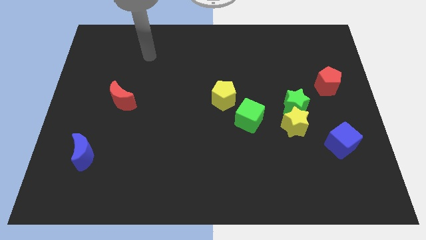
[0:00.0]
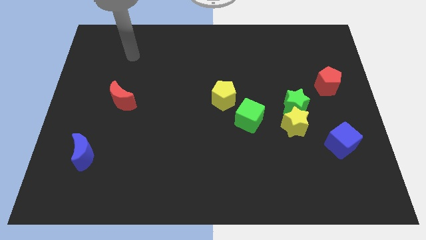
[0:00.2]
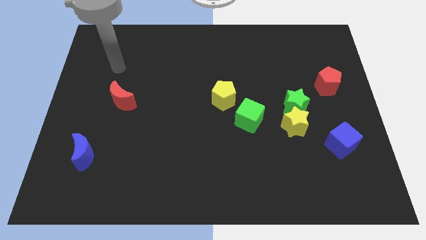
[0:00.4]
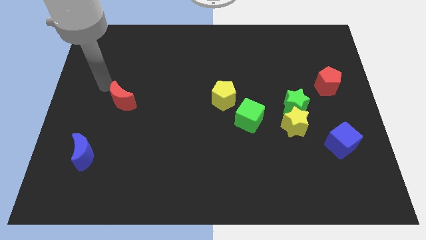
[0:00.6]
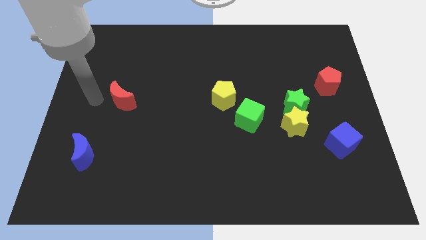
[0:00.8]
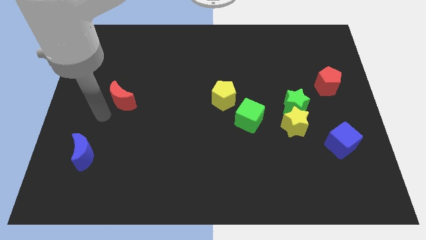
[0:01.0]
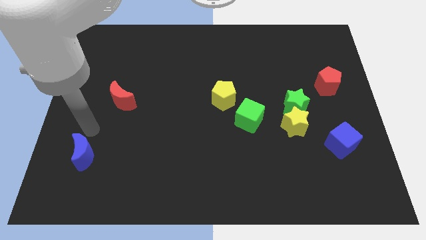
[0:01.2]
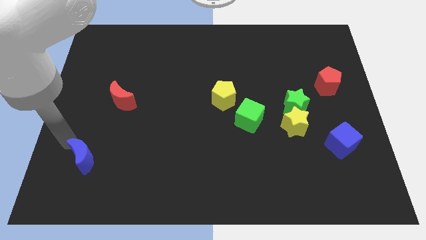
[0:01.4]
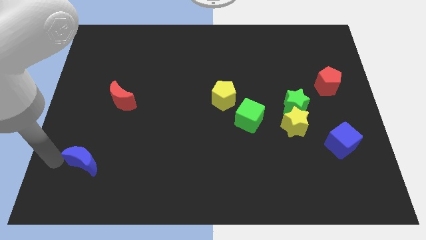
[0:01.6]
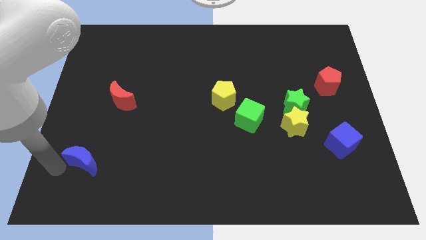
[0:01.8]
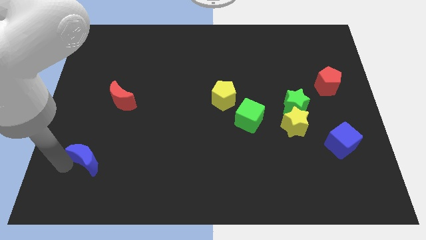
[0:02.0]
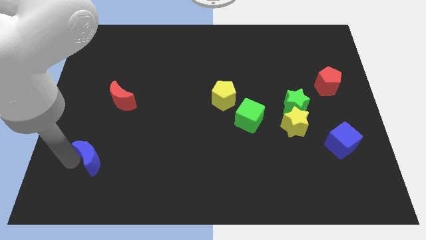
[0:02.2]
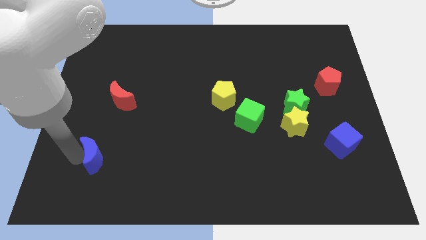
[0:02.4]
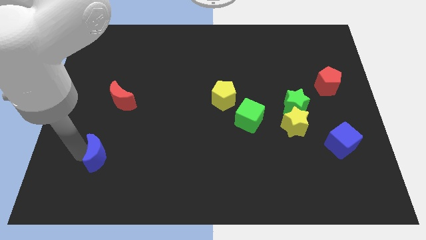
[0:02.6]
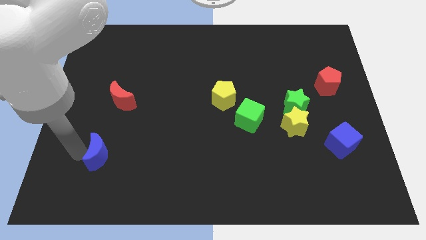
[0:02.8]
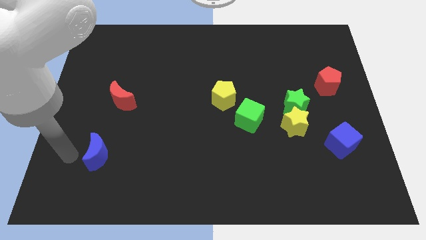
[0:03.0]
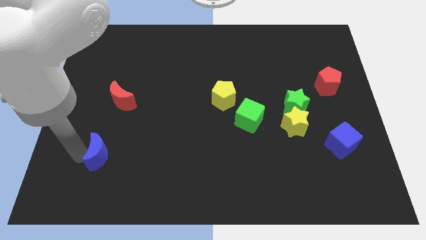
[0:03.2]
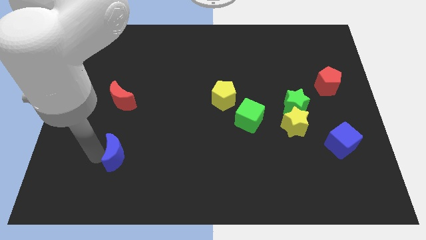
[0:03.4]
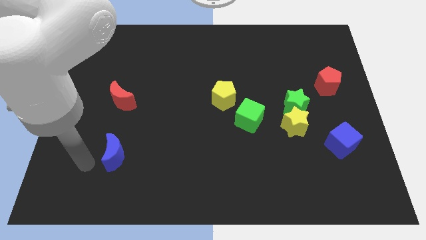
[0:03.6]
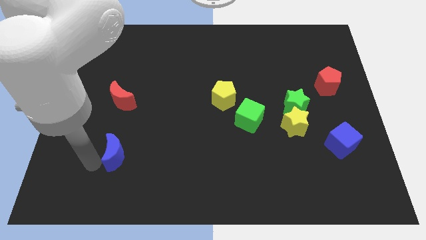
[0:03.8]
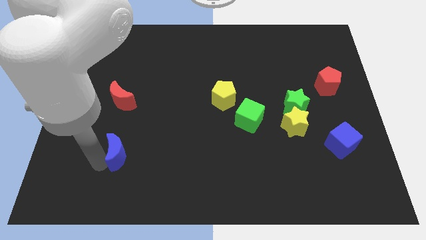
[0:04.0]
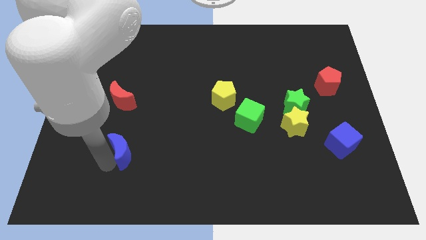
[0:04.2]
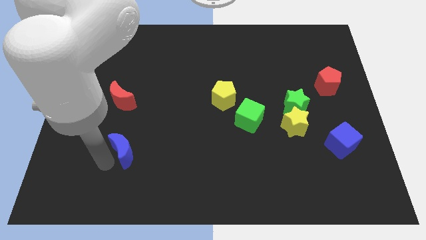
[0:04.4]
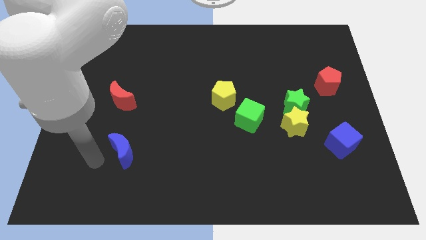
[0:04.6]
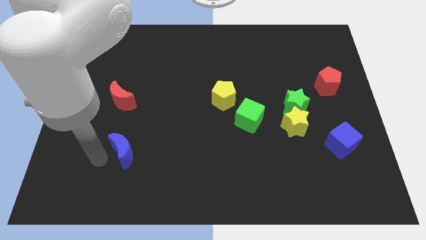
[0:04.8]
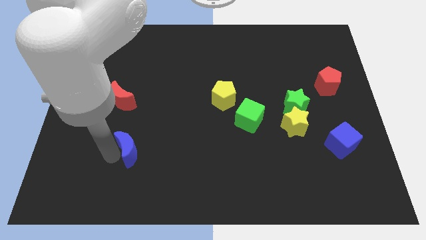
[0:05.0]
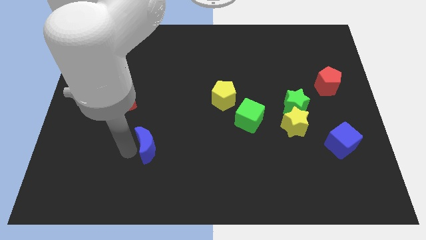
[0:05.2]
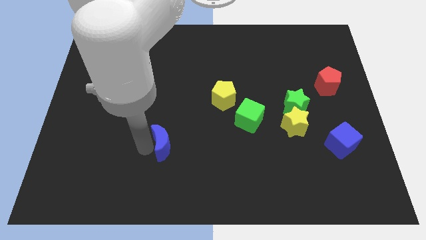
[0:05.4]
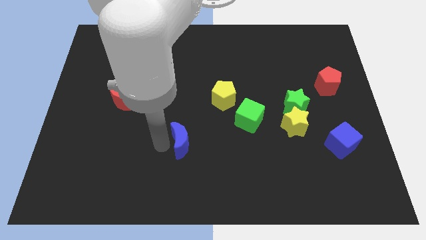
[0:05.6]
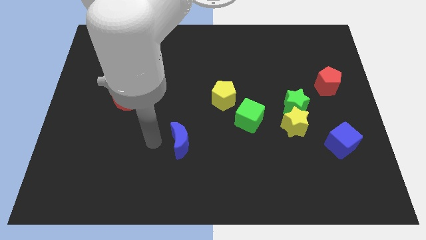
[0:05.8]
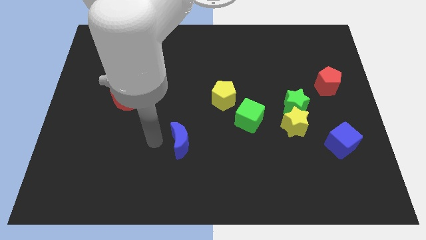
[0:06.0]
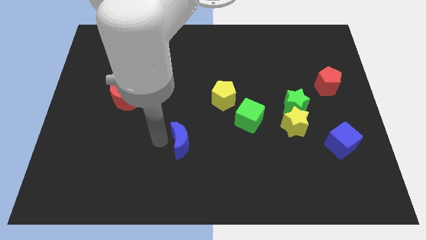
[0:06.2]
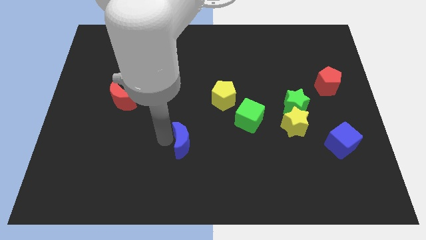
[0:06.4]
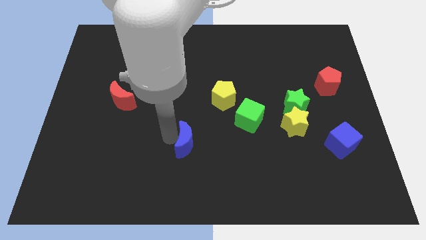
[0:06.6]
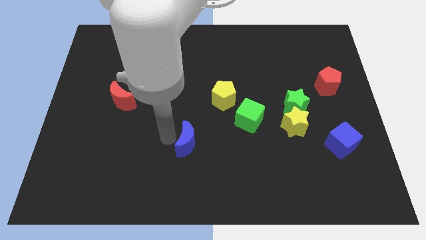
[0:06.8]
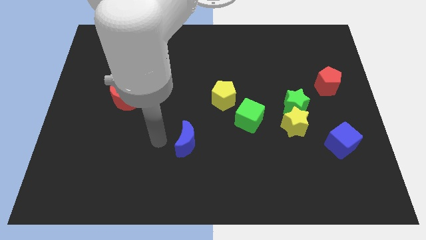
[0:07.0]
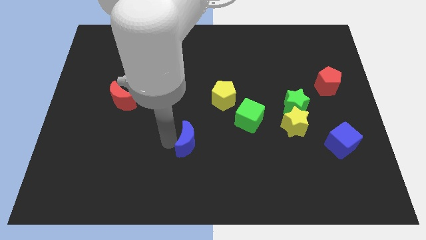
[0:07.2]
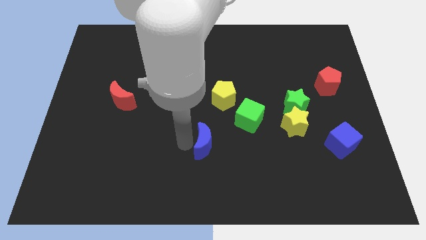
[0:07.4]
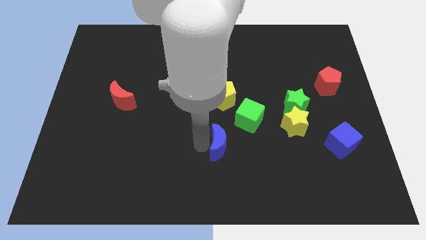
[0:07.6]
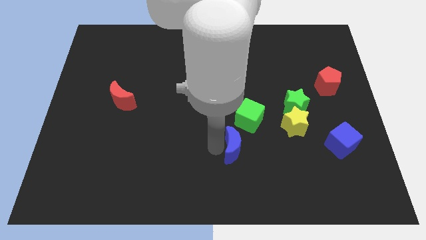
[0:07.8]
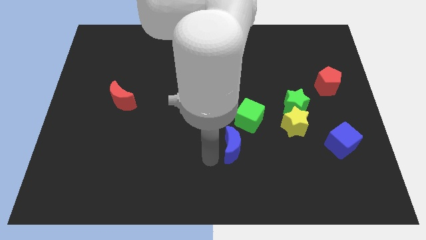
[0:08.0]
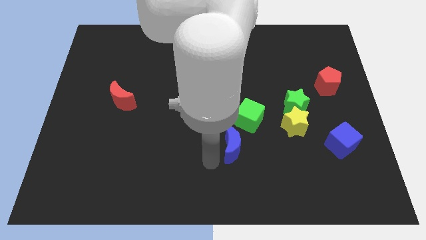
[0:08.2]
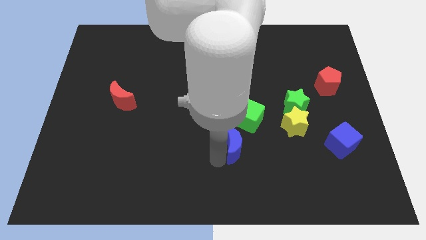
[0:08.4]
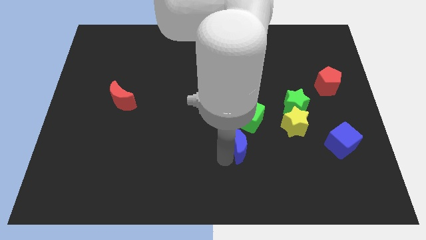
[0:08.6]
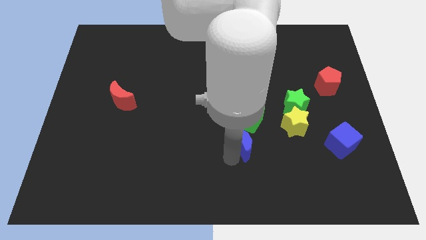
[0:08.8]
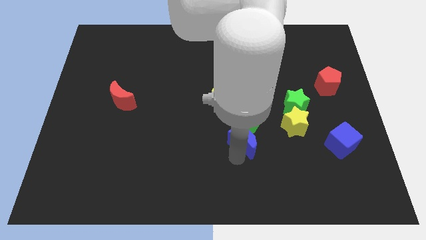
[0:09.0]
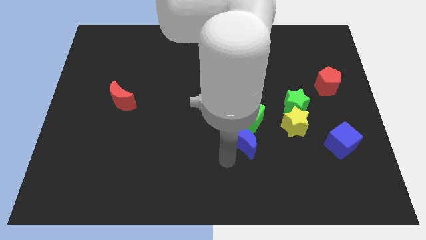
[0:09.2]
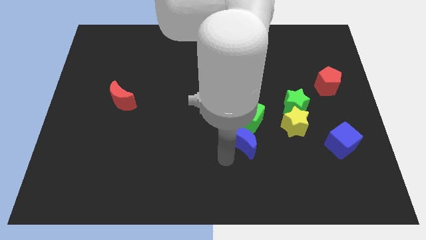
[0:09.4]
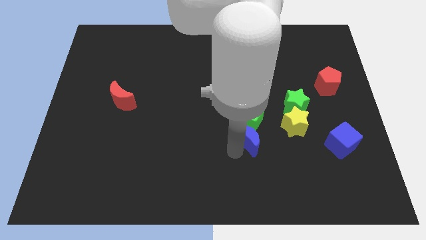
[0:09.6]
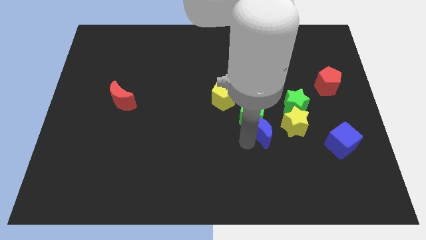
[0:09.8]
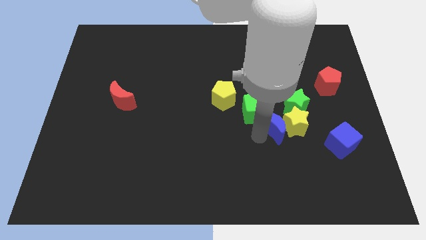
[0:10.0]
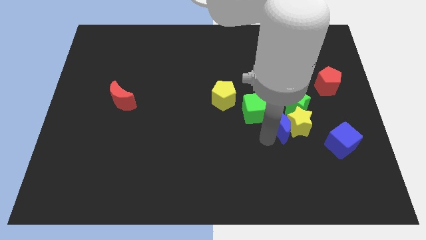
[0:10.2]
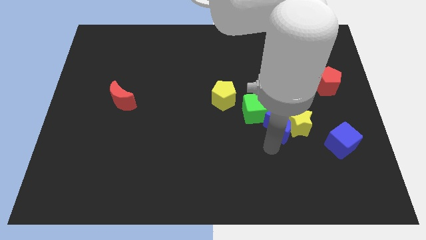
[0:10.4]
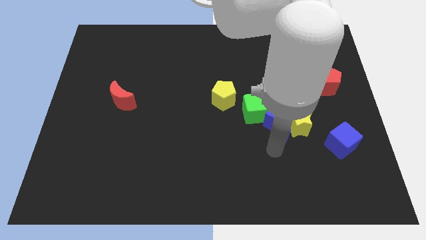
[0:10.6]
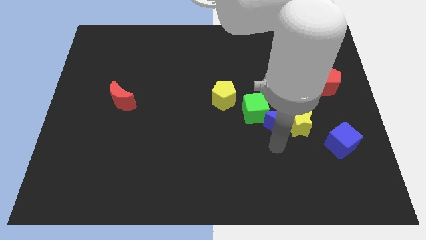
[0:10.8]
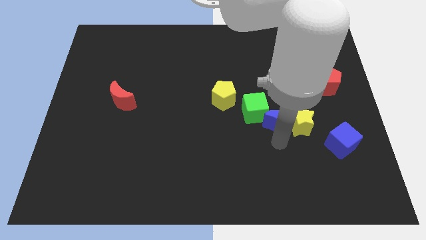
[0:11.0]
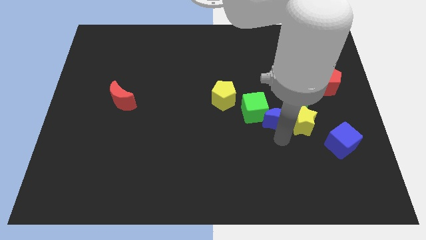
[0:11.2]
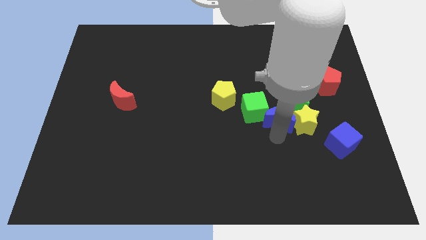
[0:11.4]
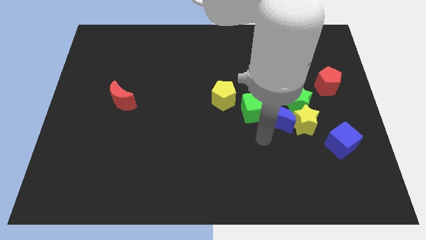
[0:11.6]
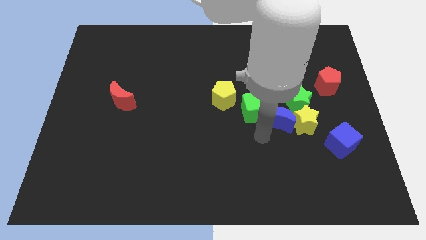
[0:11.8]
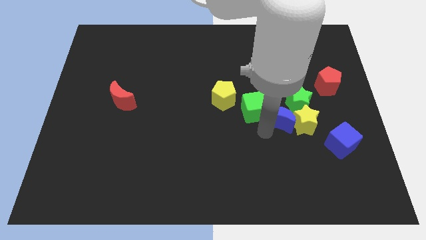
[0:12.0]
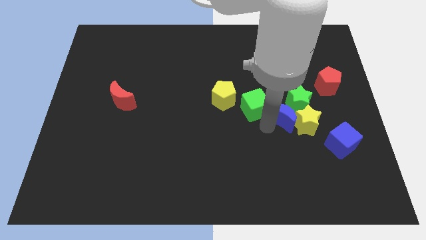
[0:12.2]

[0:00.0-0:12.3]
move the blue moon close to the green star
